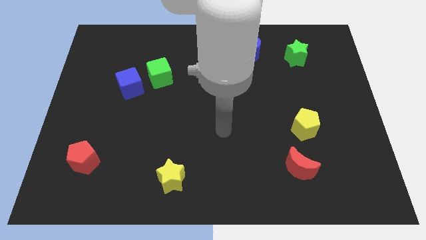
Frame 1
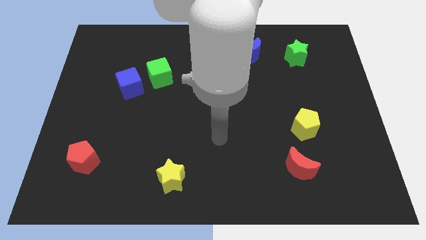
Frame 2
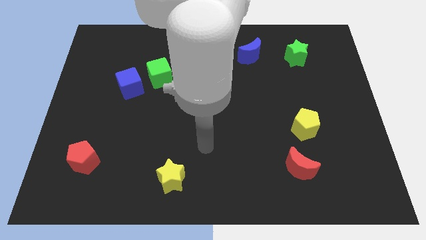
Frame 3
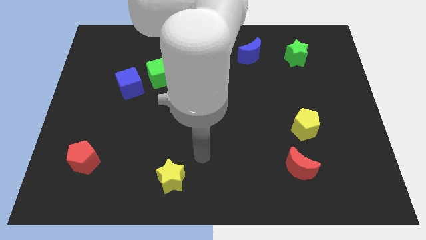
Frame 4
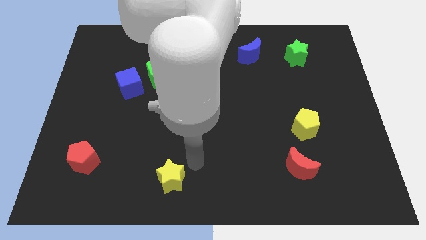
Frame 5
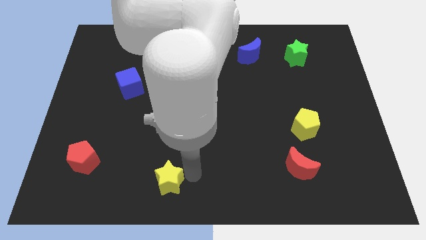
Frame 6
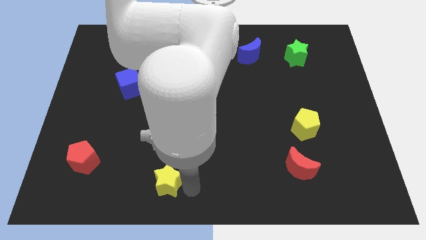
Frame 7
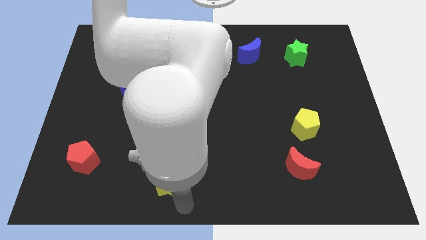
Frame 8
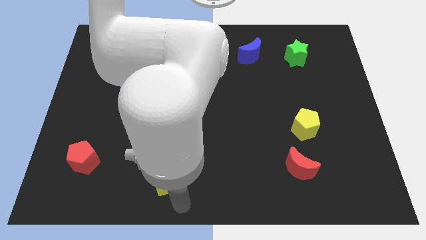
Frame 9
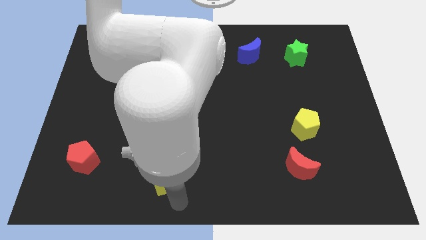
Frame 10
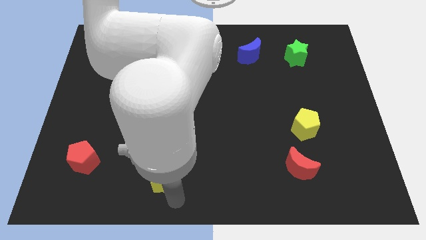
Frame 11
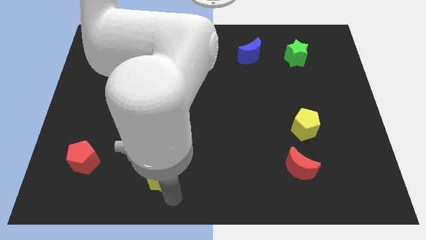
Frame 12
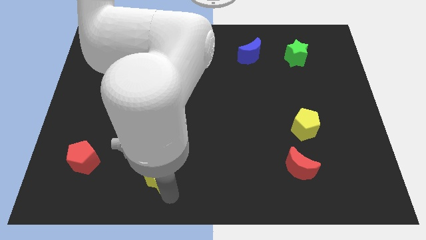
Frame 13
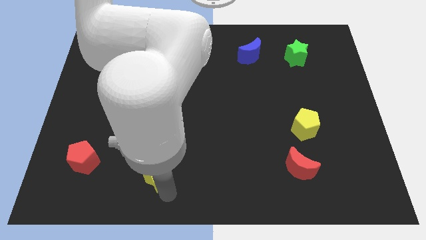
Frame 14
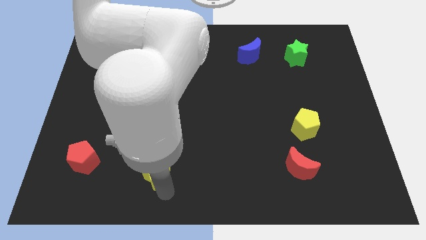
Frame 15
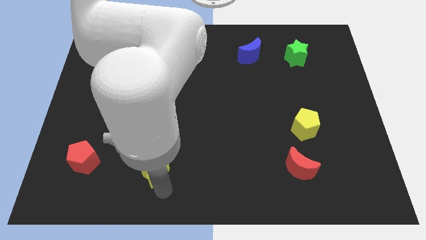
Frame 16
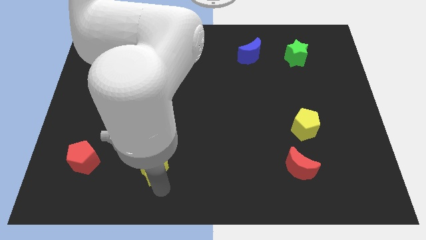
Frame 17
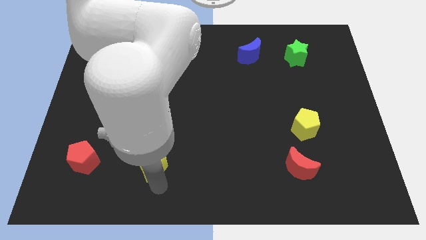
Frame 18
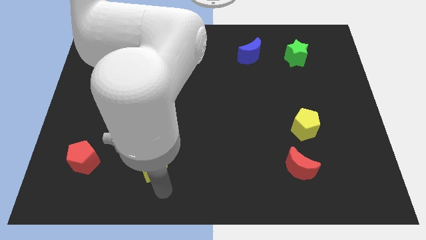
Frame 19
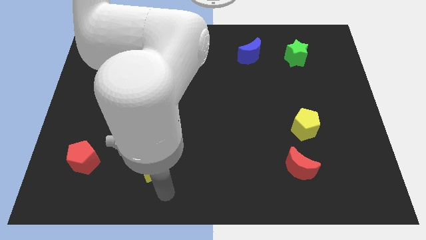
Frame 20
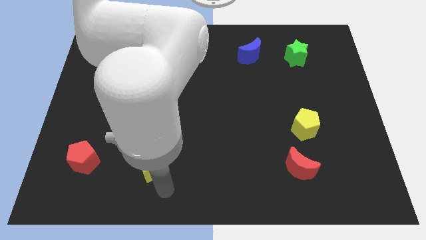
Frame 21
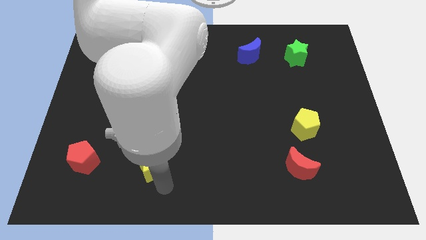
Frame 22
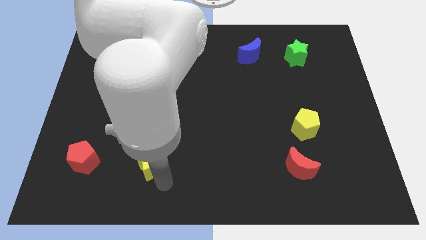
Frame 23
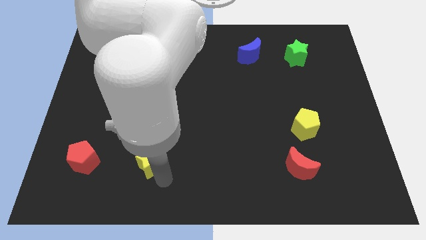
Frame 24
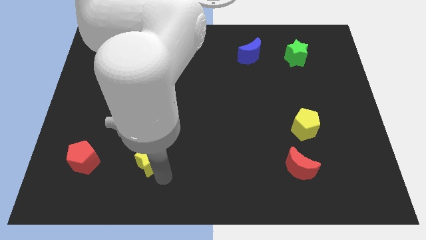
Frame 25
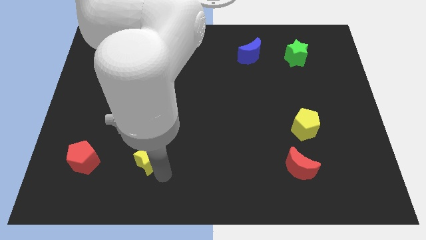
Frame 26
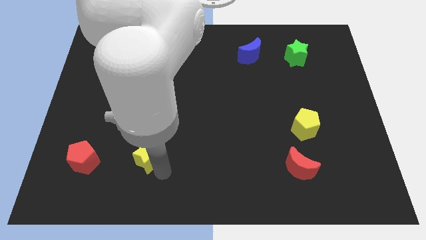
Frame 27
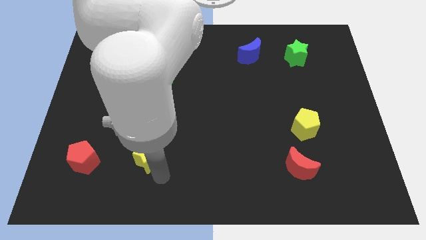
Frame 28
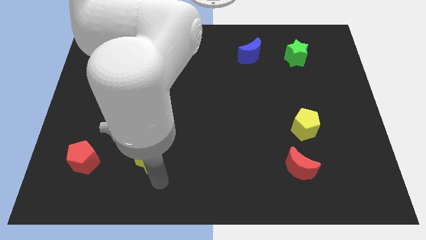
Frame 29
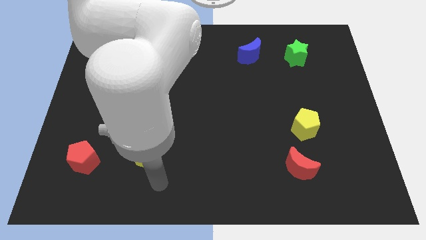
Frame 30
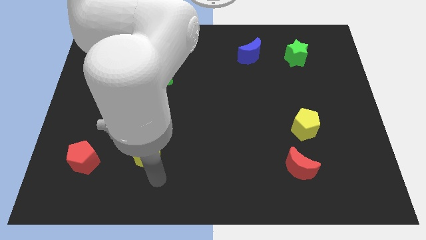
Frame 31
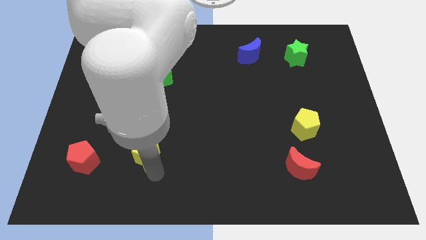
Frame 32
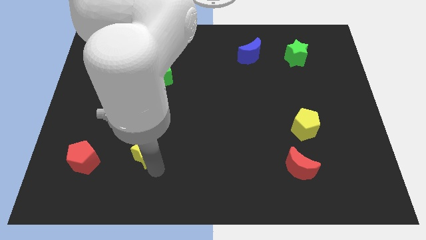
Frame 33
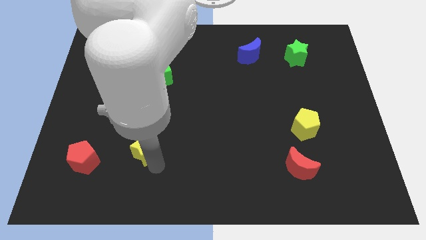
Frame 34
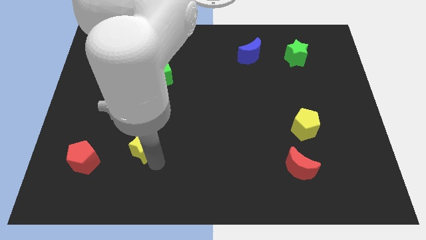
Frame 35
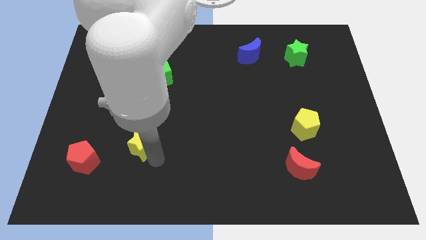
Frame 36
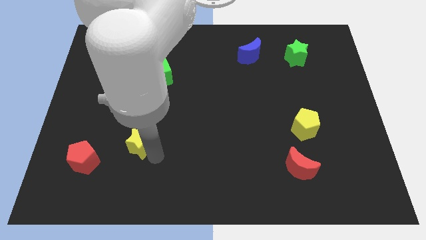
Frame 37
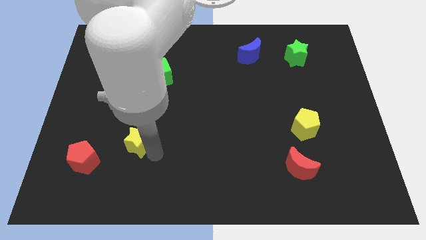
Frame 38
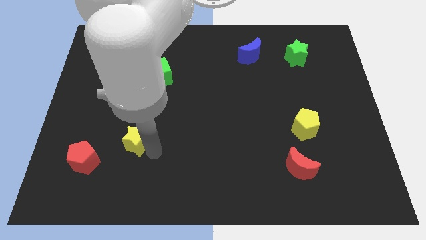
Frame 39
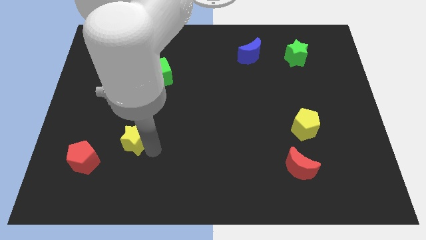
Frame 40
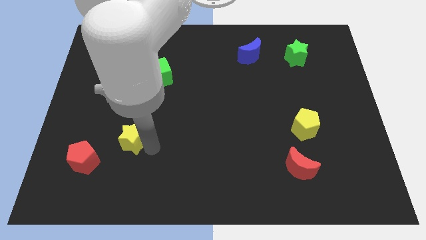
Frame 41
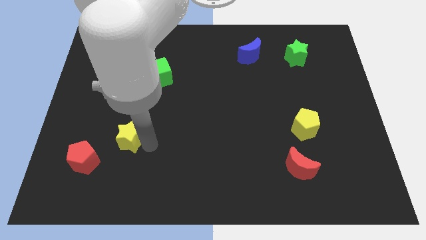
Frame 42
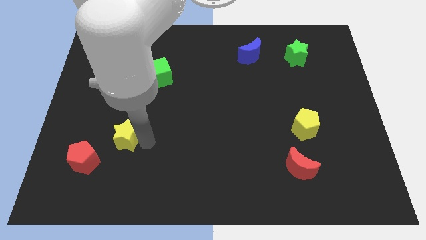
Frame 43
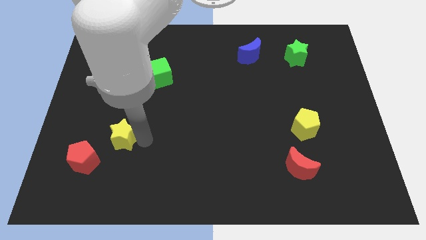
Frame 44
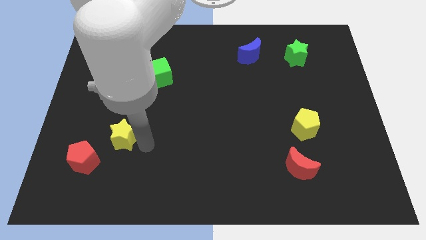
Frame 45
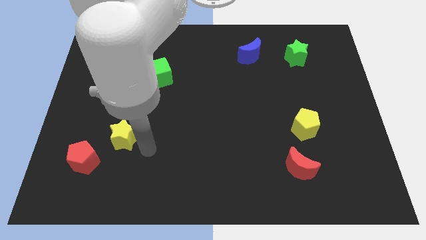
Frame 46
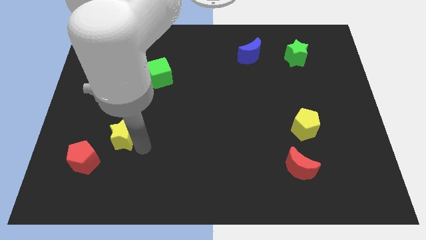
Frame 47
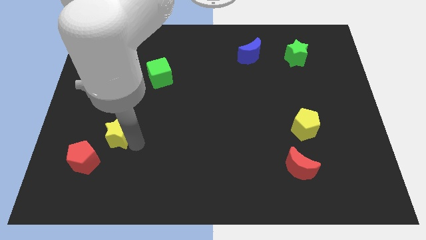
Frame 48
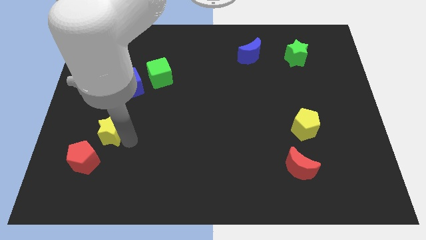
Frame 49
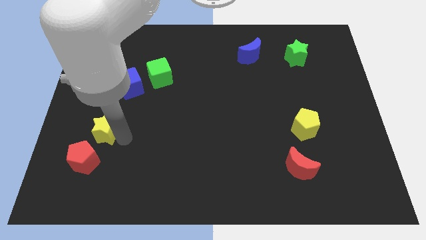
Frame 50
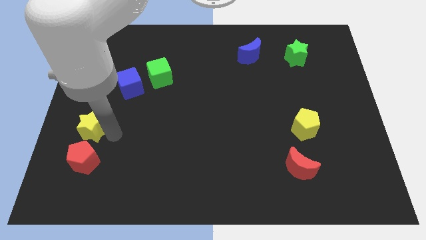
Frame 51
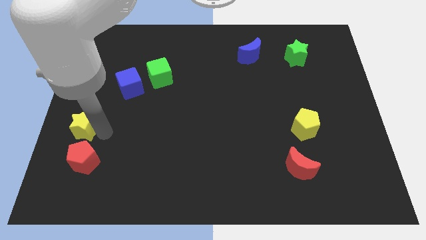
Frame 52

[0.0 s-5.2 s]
move the yellow star to the center left

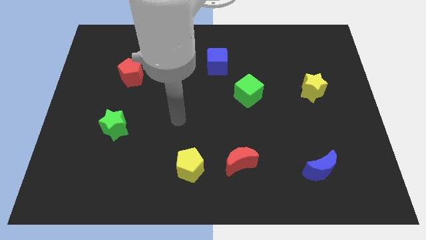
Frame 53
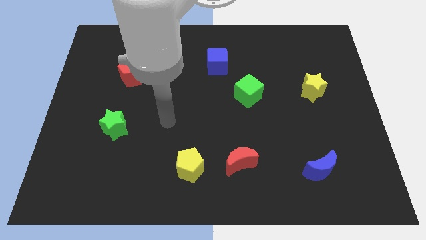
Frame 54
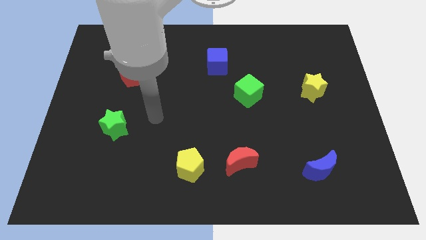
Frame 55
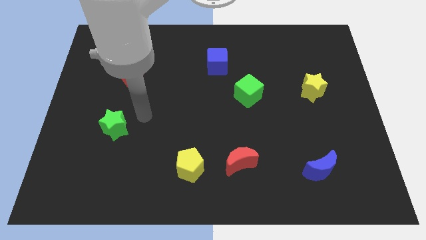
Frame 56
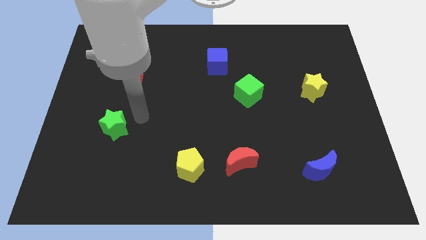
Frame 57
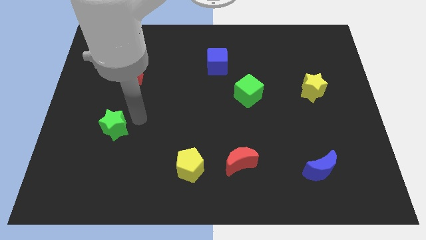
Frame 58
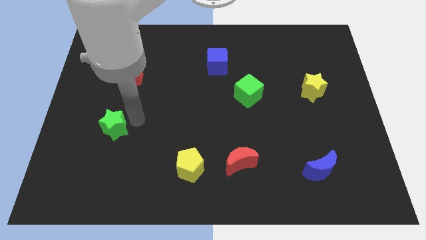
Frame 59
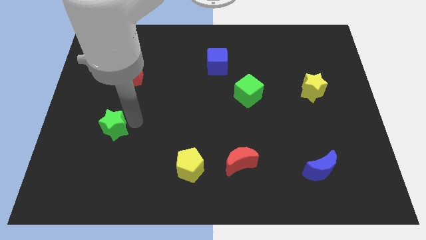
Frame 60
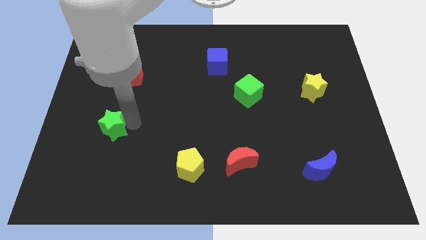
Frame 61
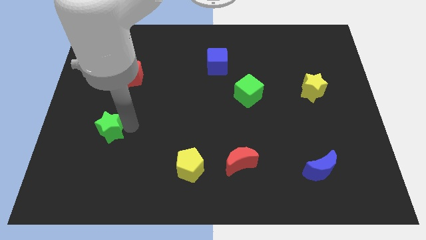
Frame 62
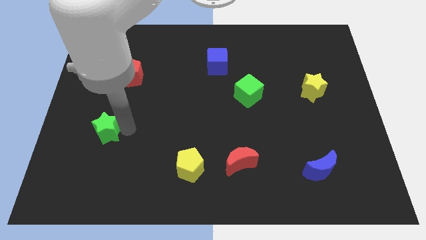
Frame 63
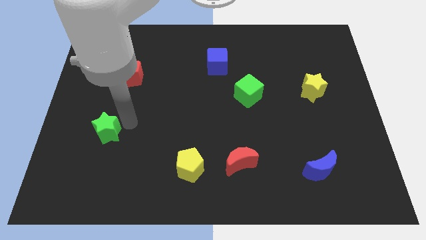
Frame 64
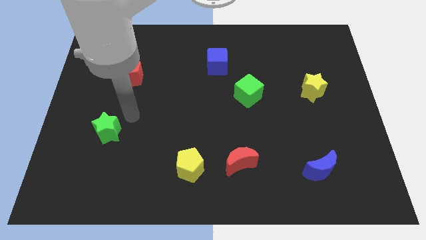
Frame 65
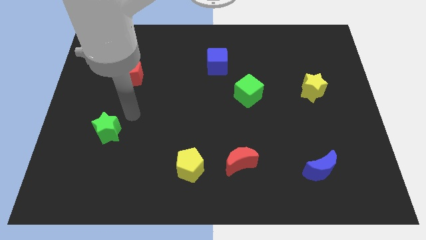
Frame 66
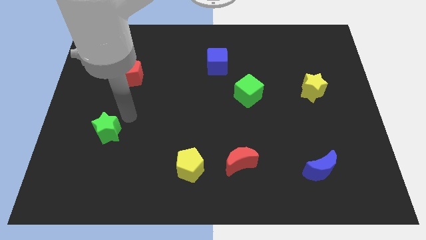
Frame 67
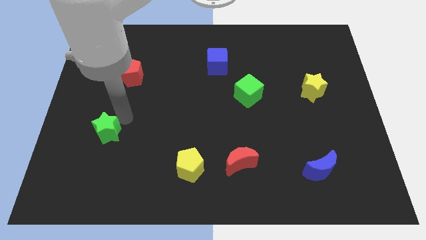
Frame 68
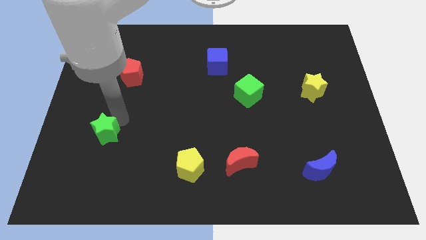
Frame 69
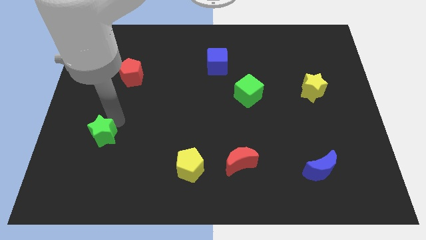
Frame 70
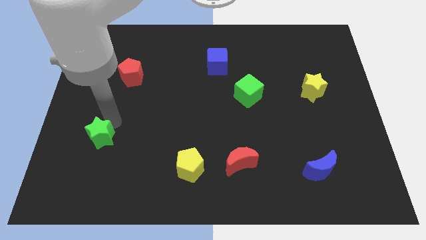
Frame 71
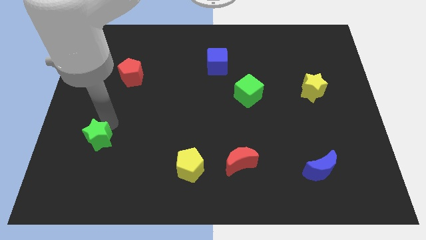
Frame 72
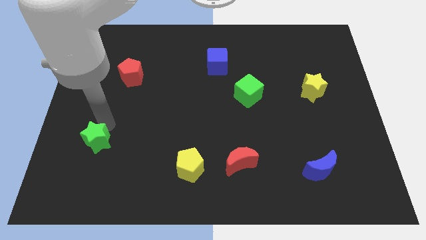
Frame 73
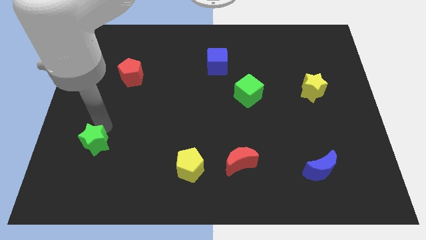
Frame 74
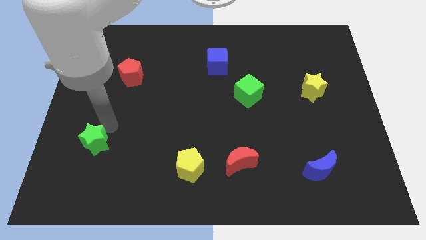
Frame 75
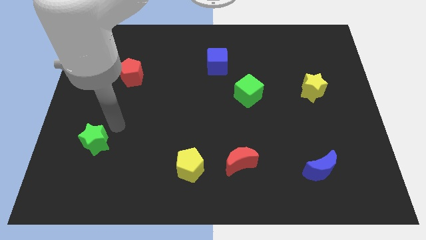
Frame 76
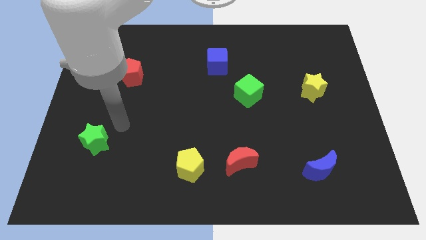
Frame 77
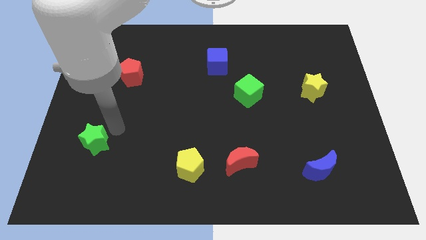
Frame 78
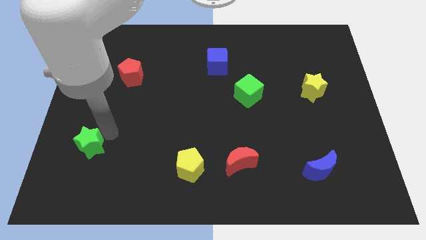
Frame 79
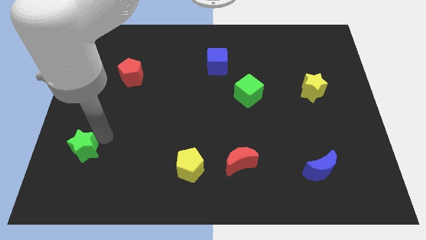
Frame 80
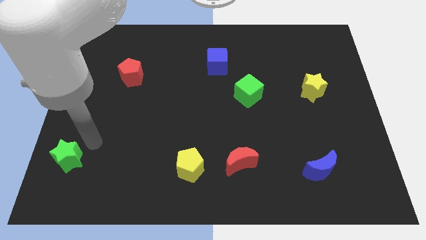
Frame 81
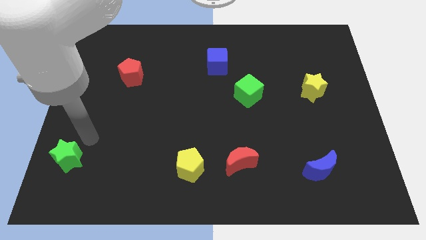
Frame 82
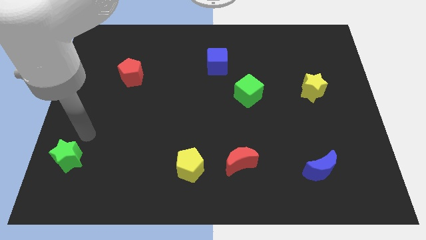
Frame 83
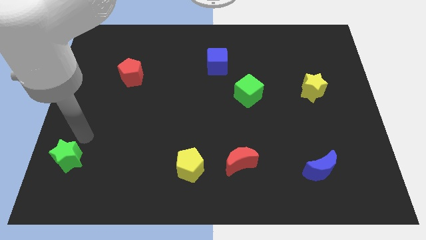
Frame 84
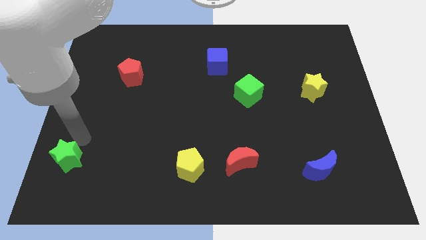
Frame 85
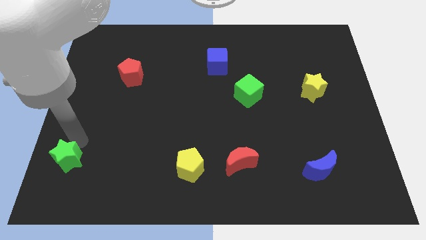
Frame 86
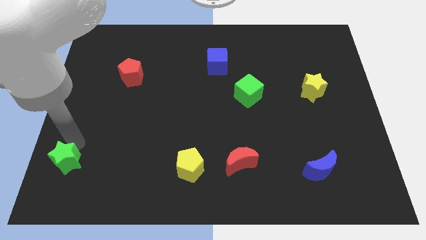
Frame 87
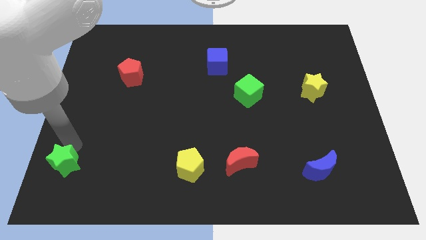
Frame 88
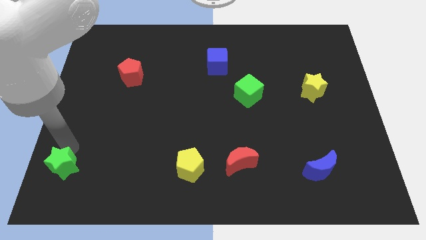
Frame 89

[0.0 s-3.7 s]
move the green star to the bottom left corner
